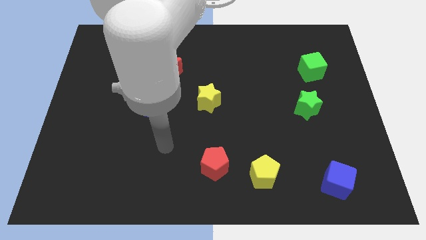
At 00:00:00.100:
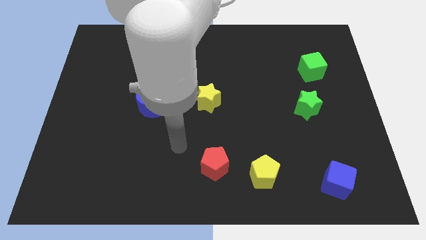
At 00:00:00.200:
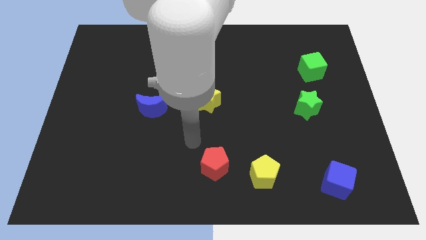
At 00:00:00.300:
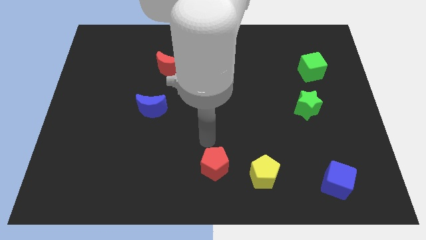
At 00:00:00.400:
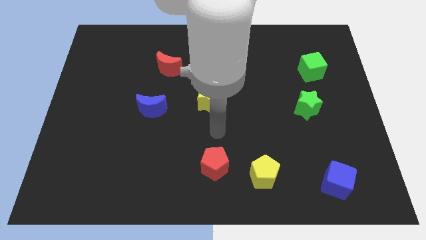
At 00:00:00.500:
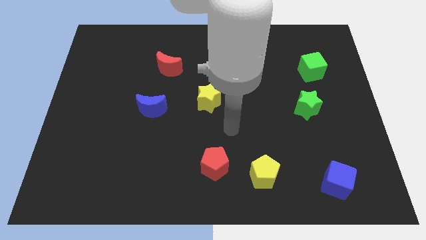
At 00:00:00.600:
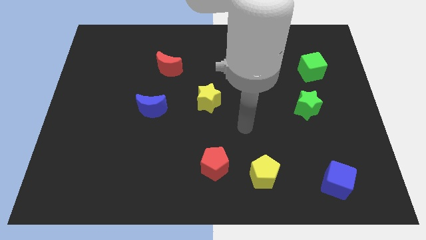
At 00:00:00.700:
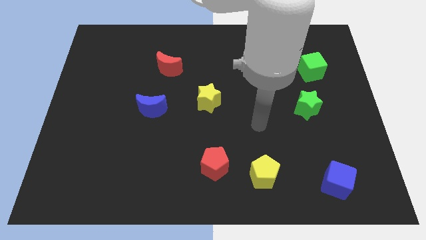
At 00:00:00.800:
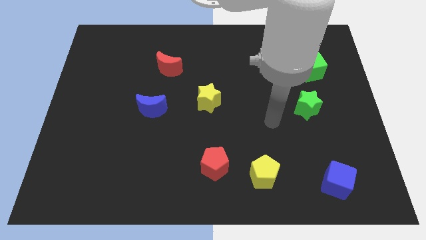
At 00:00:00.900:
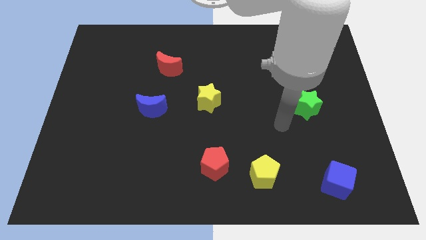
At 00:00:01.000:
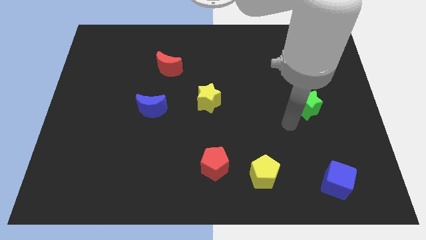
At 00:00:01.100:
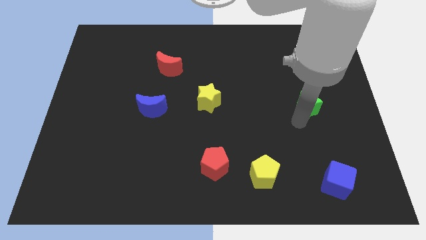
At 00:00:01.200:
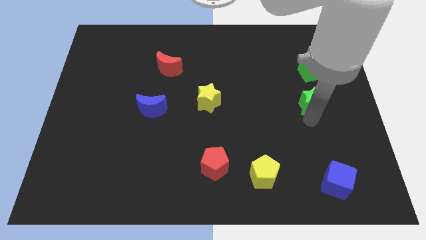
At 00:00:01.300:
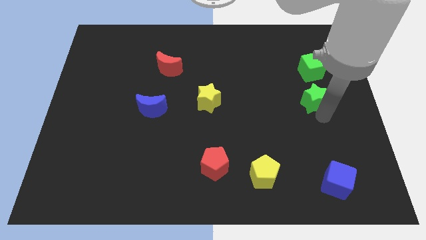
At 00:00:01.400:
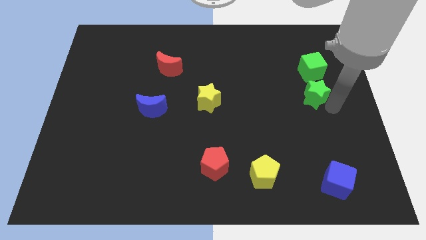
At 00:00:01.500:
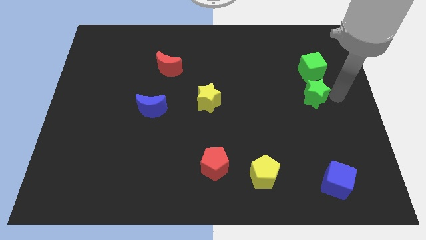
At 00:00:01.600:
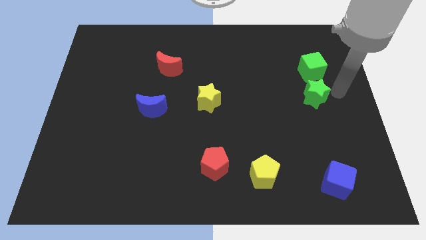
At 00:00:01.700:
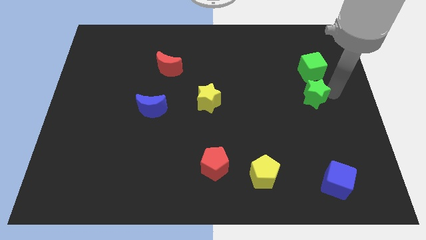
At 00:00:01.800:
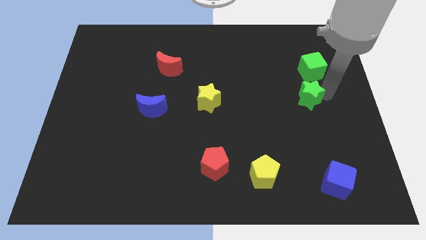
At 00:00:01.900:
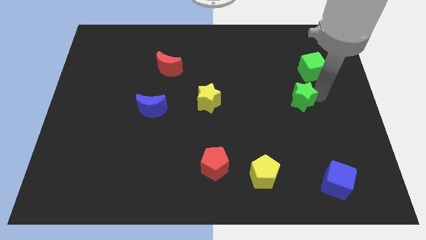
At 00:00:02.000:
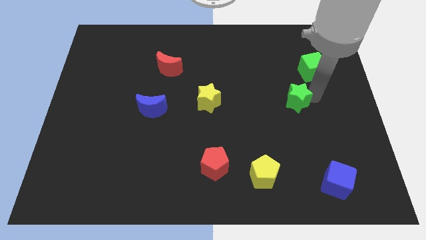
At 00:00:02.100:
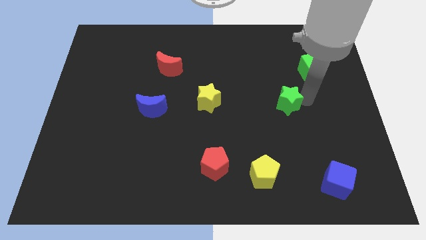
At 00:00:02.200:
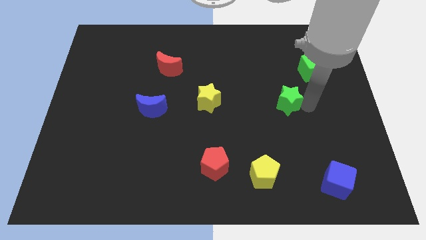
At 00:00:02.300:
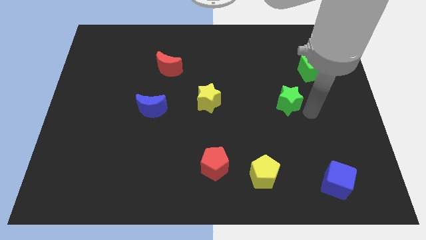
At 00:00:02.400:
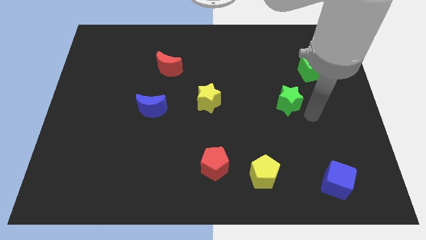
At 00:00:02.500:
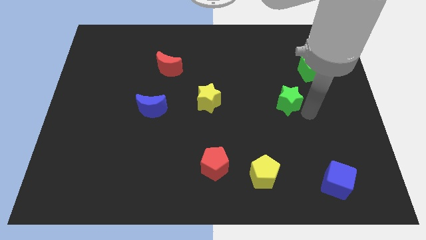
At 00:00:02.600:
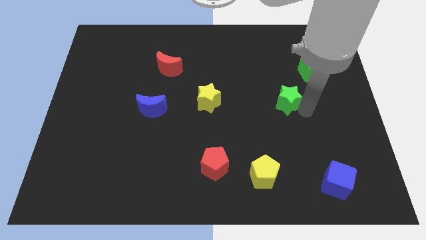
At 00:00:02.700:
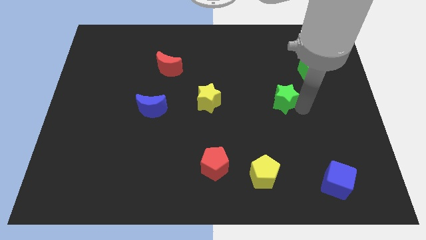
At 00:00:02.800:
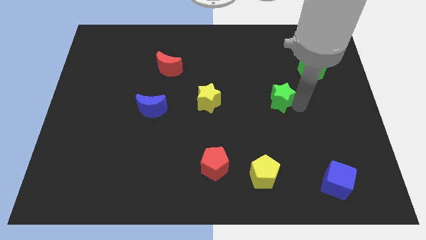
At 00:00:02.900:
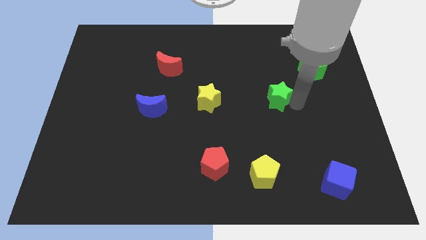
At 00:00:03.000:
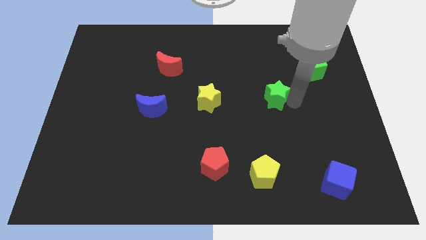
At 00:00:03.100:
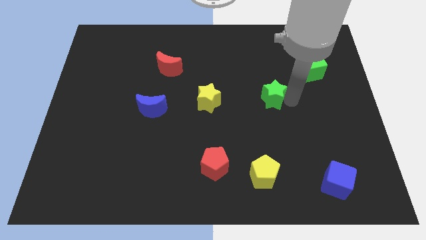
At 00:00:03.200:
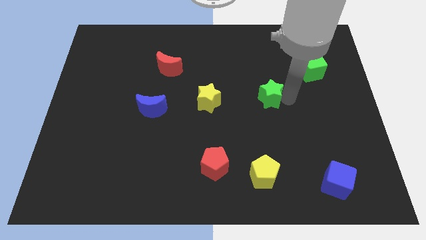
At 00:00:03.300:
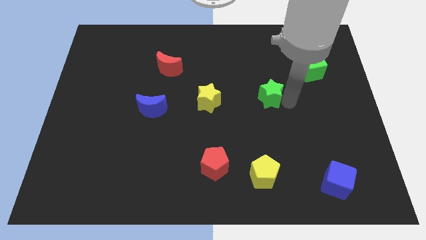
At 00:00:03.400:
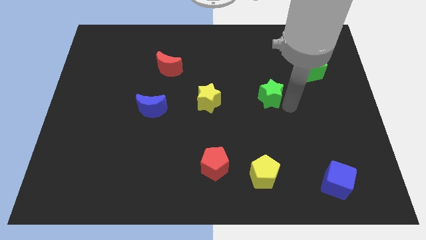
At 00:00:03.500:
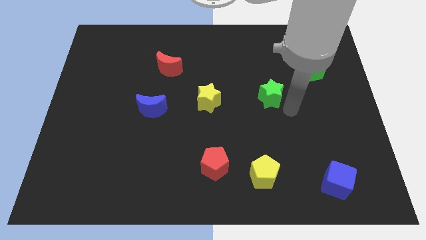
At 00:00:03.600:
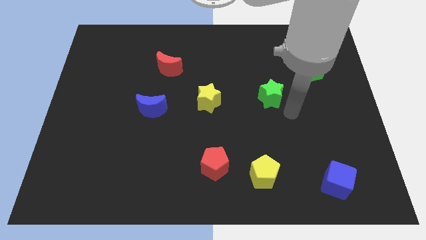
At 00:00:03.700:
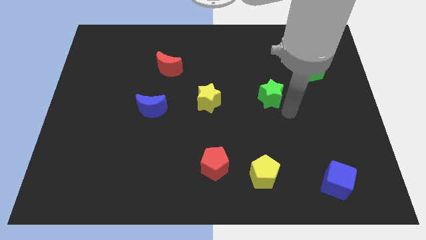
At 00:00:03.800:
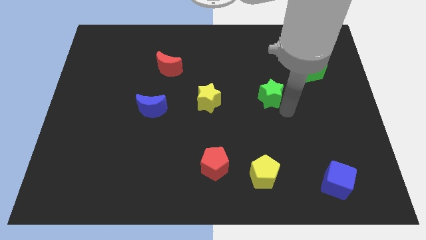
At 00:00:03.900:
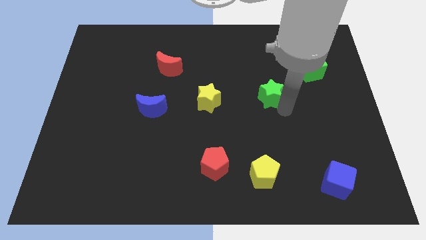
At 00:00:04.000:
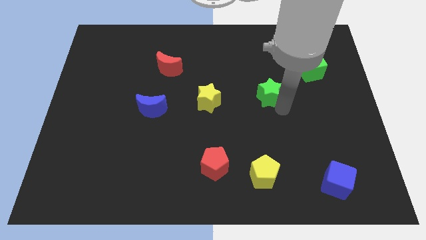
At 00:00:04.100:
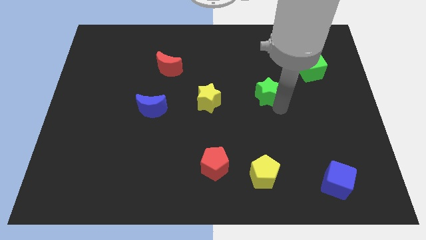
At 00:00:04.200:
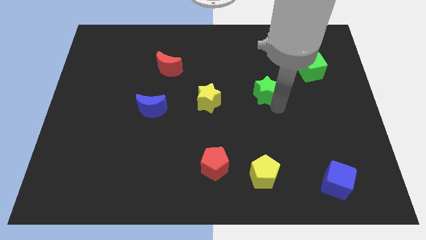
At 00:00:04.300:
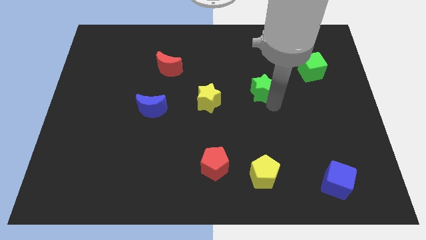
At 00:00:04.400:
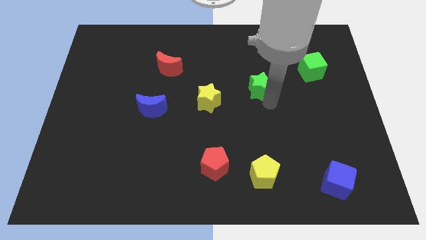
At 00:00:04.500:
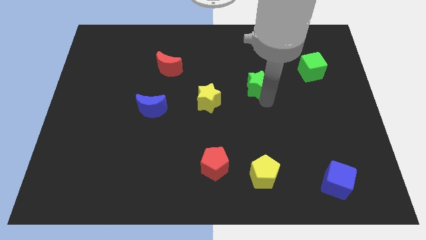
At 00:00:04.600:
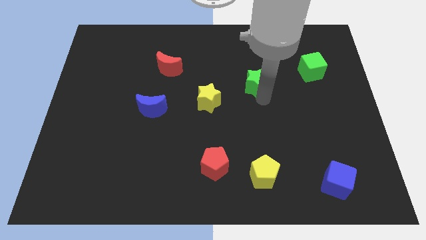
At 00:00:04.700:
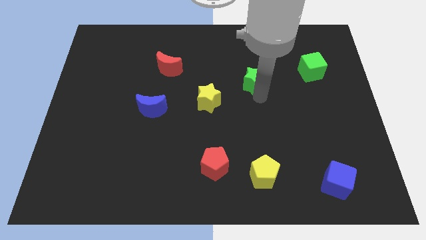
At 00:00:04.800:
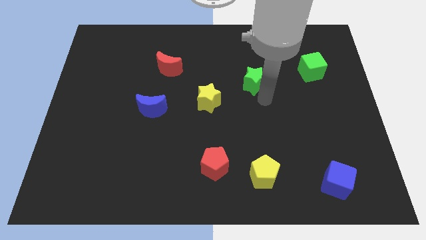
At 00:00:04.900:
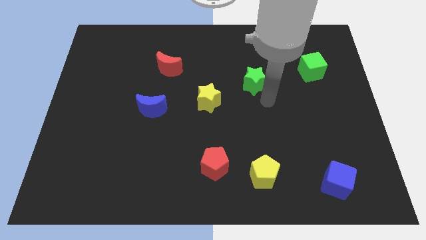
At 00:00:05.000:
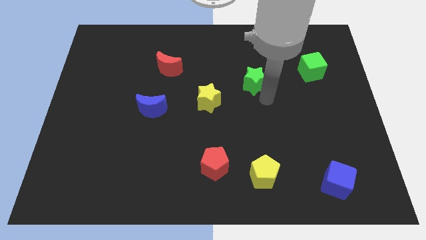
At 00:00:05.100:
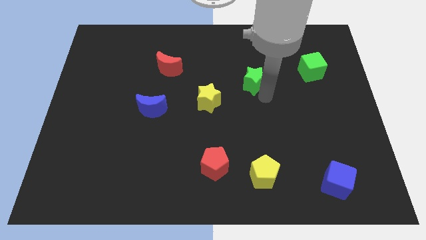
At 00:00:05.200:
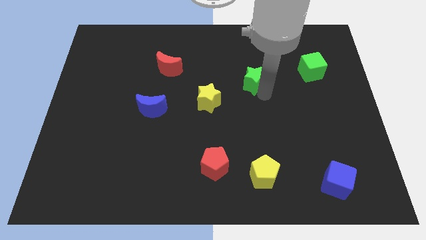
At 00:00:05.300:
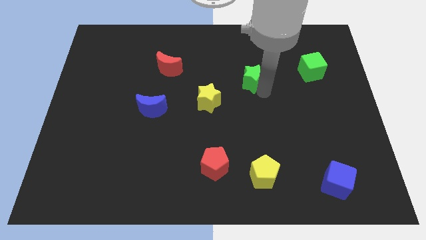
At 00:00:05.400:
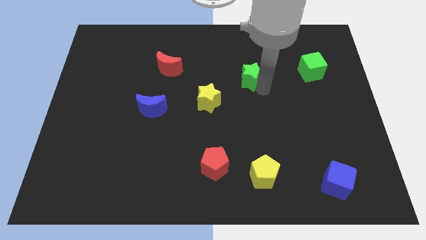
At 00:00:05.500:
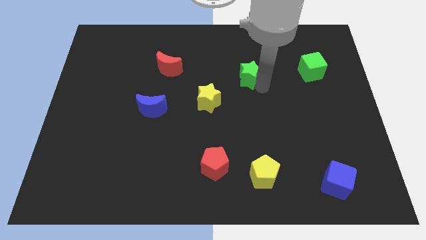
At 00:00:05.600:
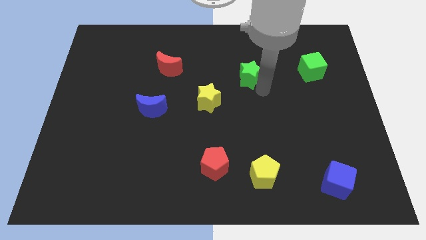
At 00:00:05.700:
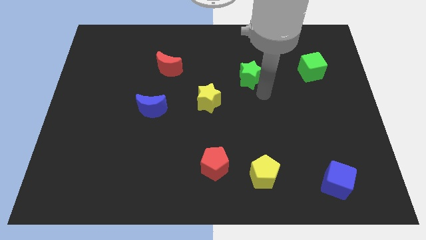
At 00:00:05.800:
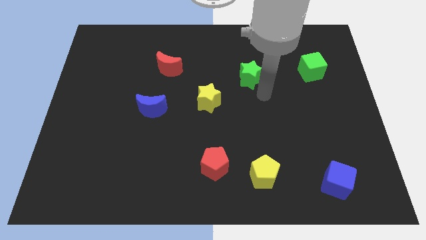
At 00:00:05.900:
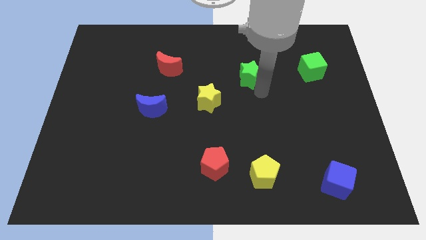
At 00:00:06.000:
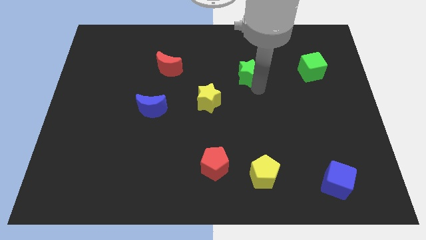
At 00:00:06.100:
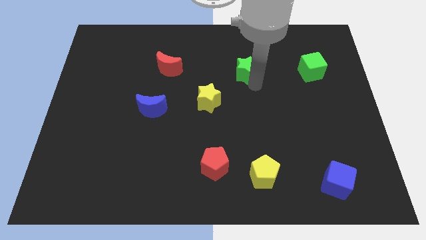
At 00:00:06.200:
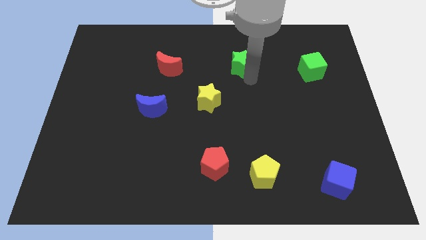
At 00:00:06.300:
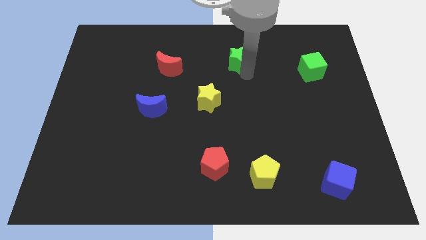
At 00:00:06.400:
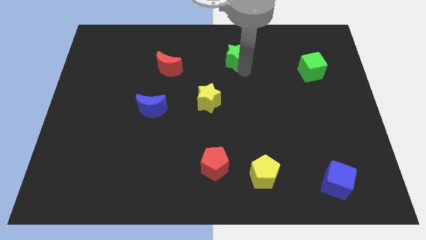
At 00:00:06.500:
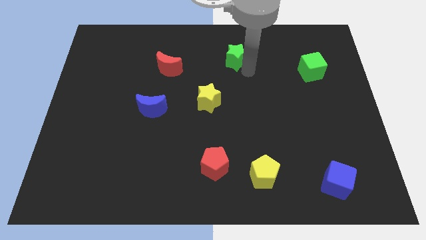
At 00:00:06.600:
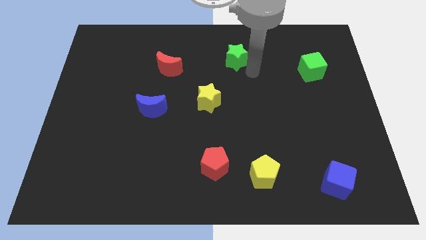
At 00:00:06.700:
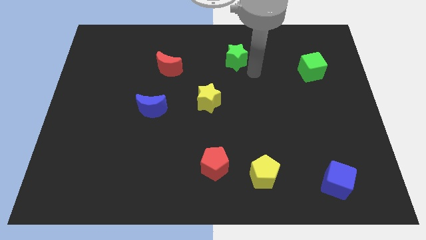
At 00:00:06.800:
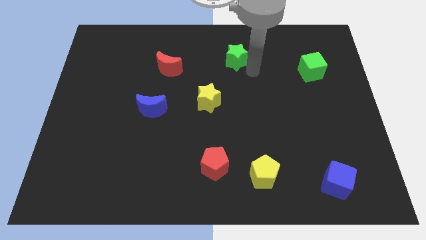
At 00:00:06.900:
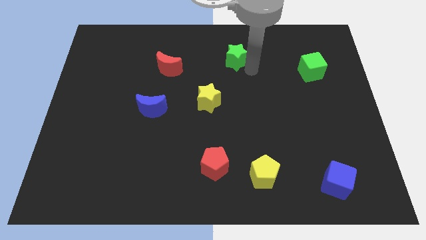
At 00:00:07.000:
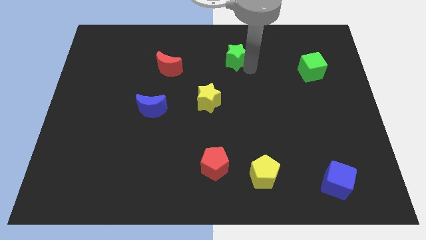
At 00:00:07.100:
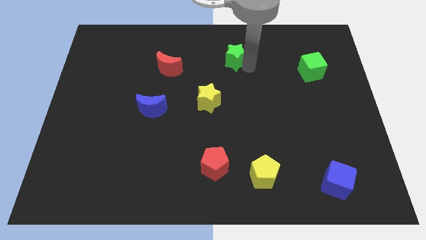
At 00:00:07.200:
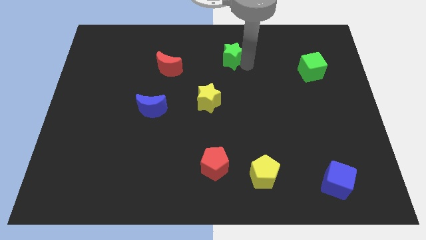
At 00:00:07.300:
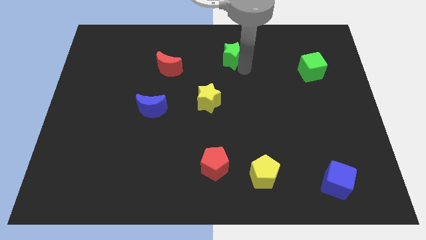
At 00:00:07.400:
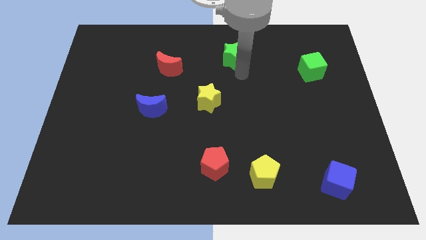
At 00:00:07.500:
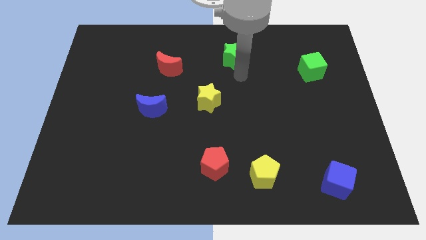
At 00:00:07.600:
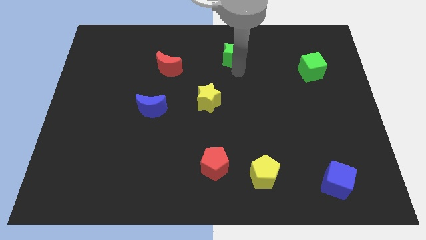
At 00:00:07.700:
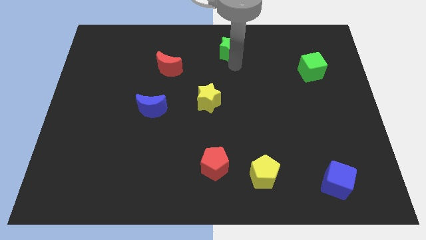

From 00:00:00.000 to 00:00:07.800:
push the green star to the towards your base
